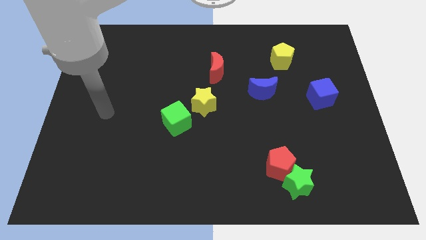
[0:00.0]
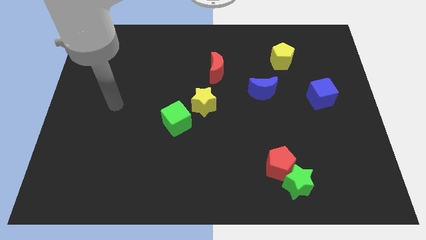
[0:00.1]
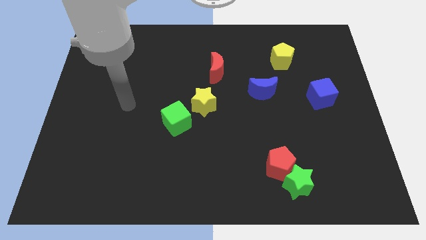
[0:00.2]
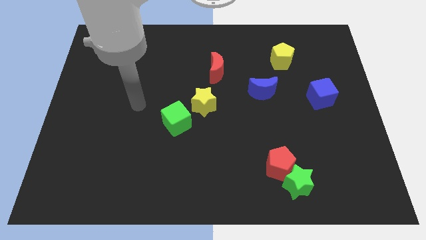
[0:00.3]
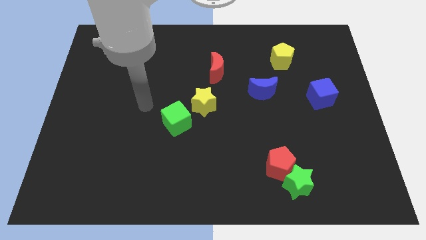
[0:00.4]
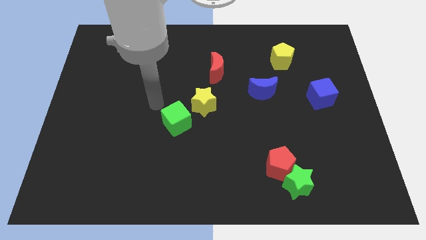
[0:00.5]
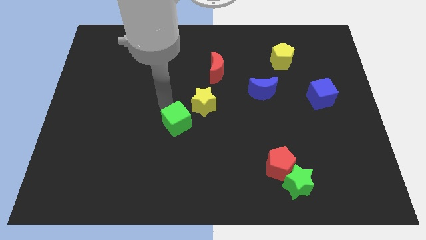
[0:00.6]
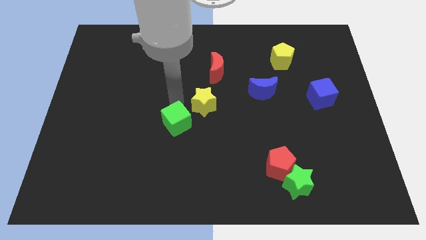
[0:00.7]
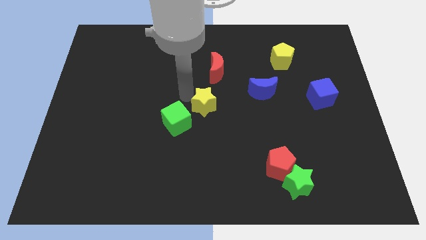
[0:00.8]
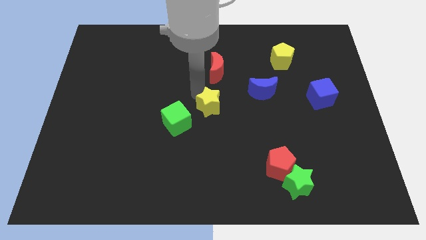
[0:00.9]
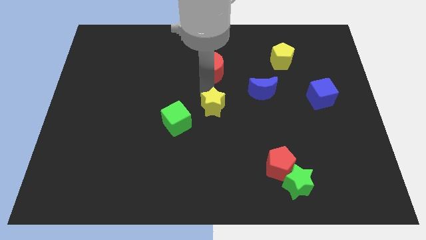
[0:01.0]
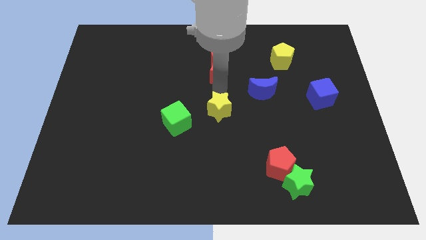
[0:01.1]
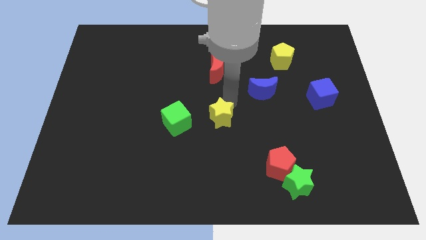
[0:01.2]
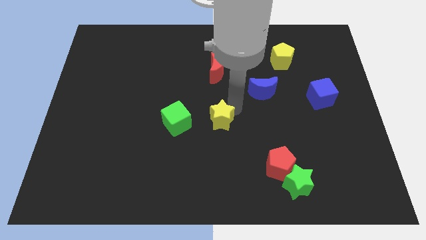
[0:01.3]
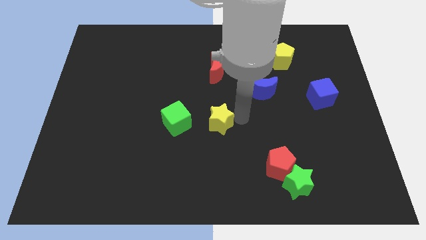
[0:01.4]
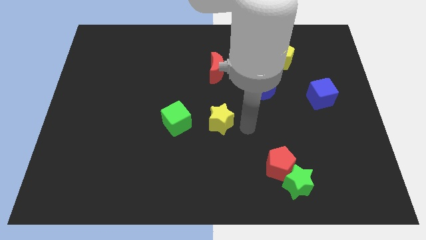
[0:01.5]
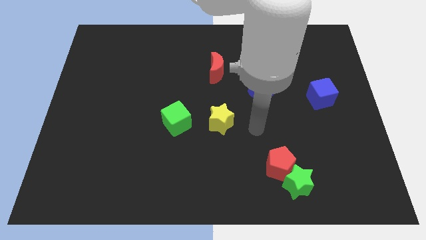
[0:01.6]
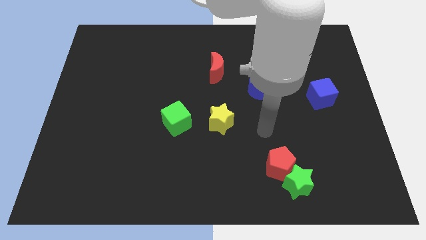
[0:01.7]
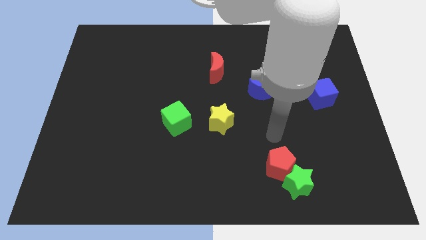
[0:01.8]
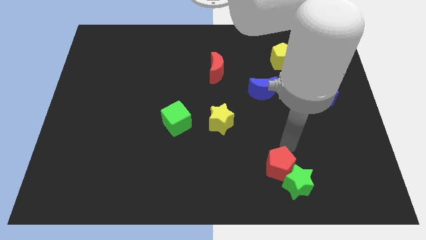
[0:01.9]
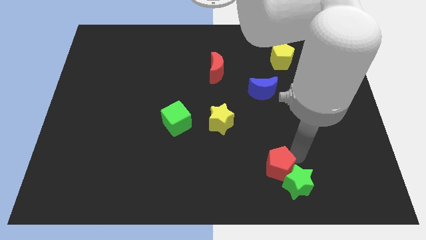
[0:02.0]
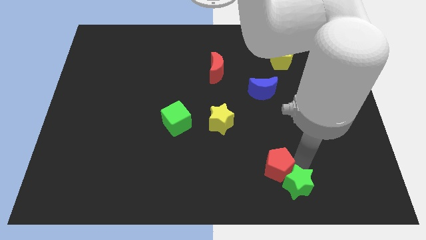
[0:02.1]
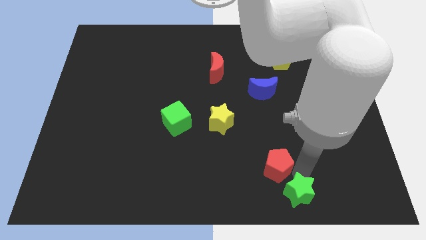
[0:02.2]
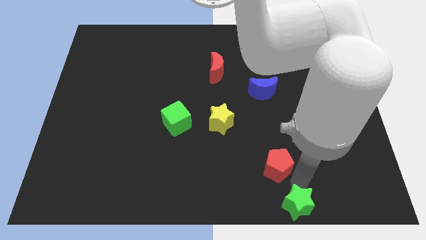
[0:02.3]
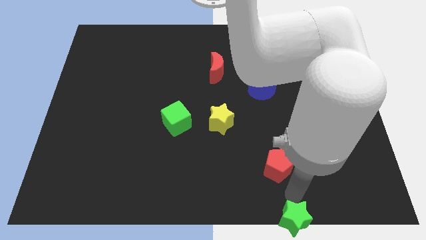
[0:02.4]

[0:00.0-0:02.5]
pull the red pentagon apart from the green star

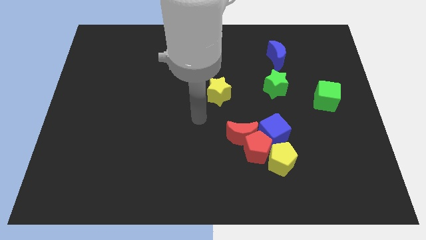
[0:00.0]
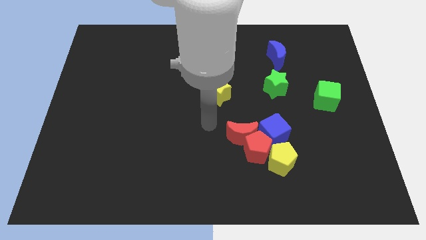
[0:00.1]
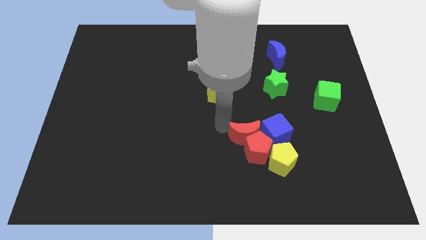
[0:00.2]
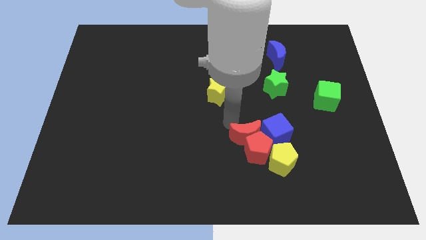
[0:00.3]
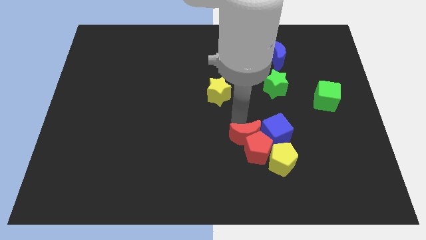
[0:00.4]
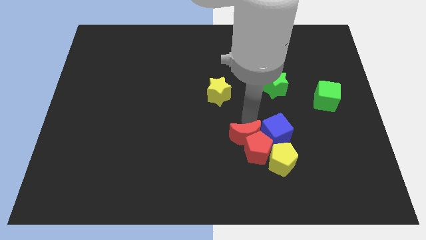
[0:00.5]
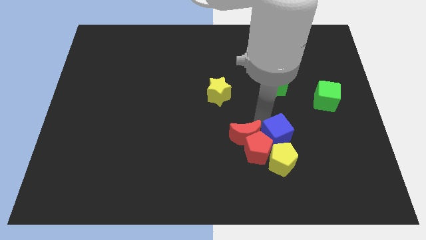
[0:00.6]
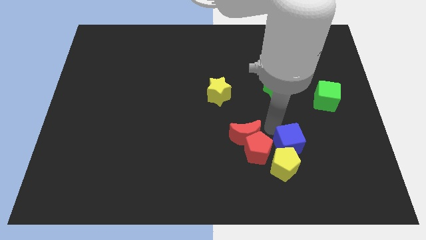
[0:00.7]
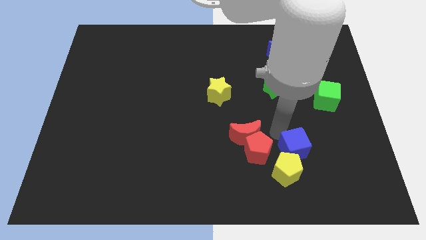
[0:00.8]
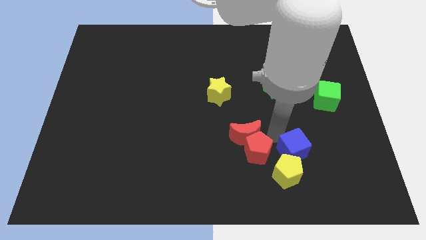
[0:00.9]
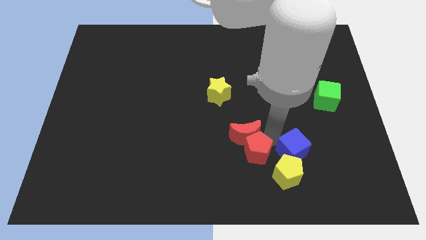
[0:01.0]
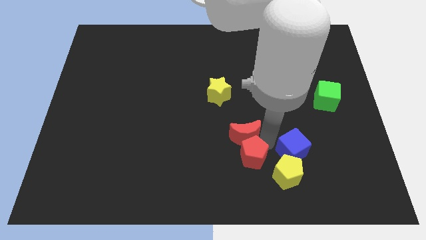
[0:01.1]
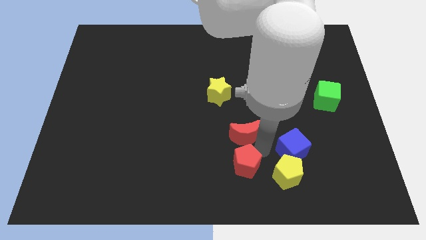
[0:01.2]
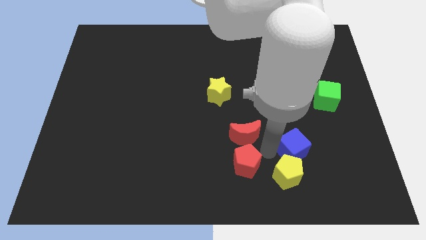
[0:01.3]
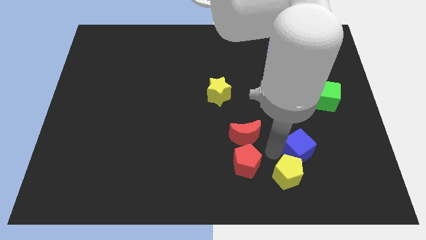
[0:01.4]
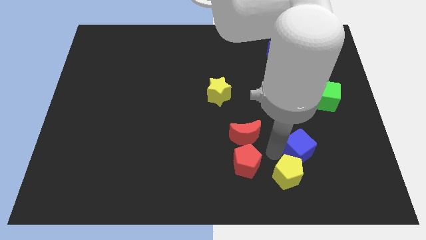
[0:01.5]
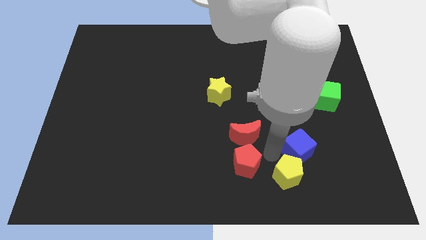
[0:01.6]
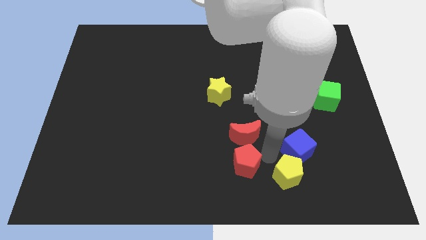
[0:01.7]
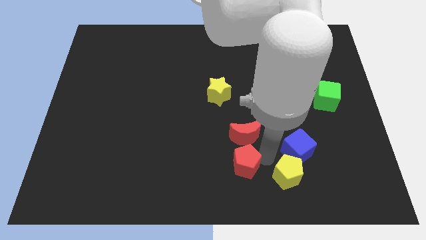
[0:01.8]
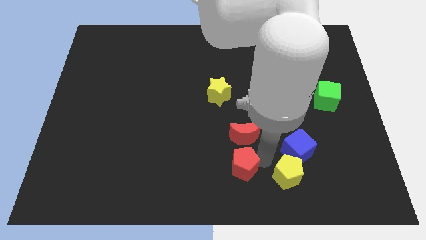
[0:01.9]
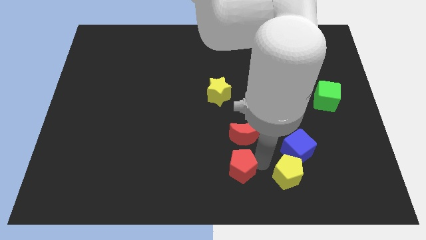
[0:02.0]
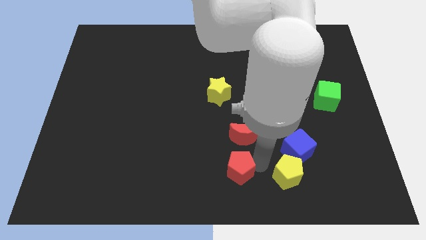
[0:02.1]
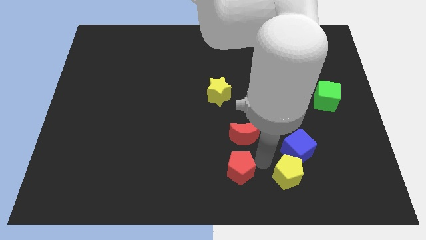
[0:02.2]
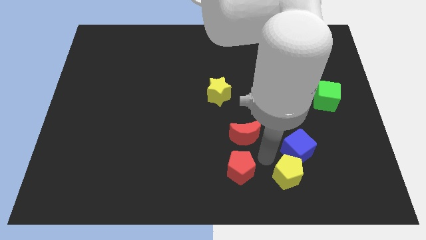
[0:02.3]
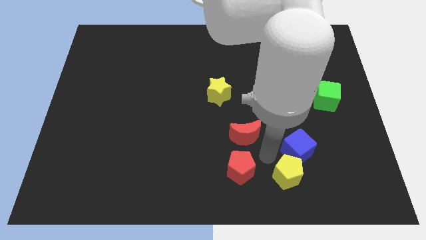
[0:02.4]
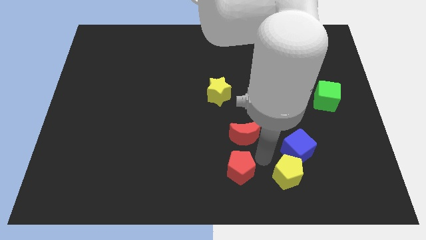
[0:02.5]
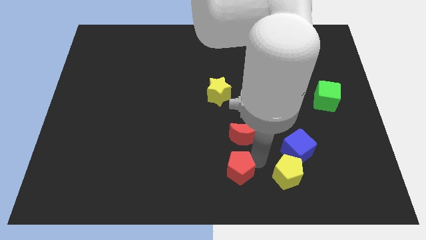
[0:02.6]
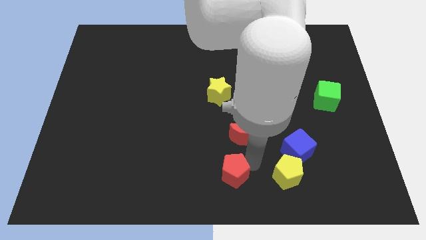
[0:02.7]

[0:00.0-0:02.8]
pull the red pentagon apart from the clump

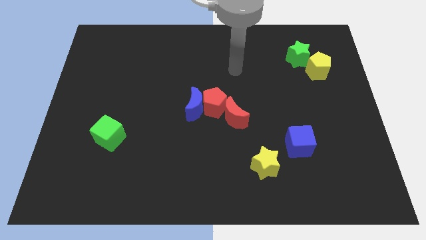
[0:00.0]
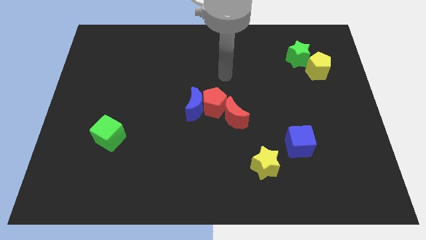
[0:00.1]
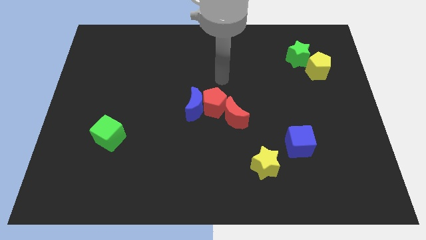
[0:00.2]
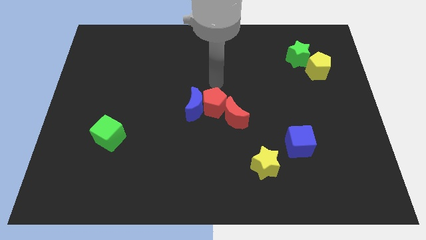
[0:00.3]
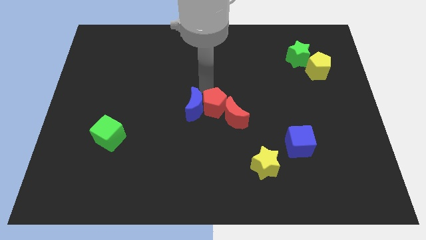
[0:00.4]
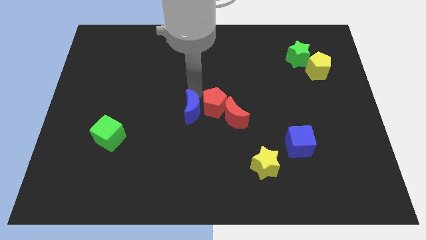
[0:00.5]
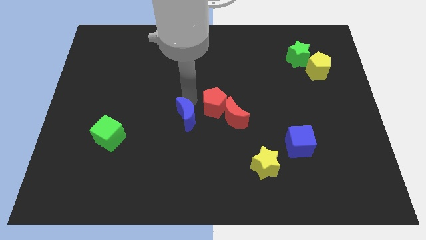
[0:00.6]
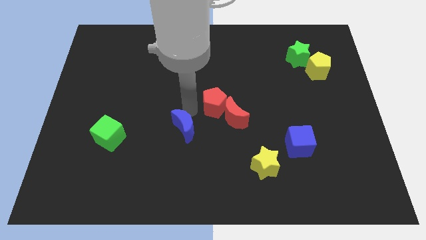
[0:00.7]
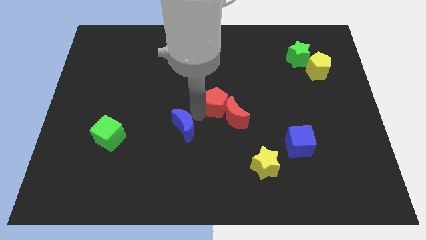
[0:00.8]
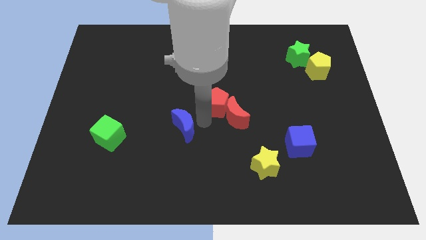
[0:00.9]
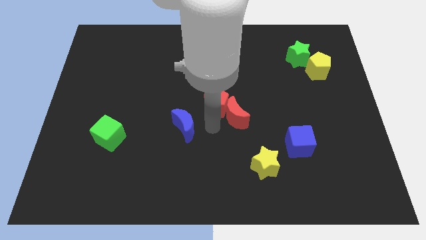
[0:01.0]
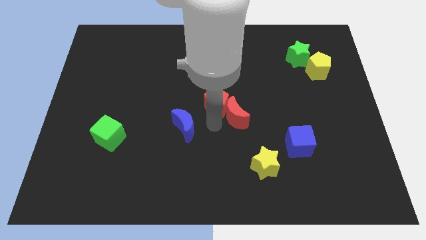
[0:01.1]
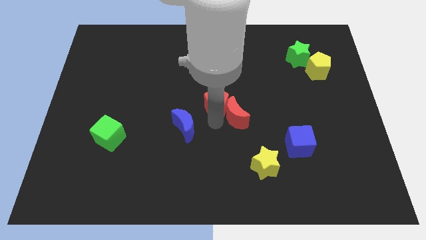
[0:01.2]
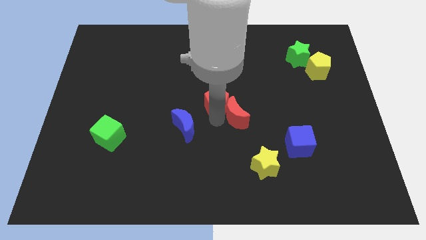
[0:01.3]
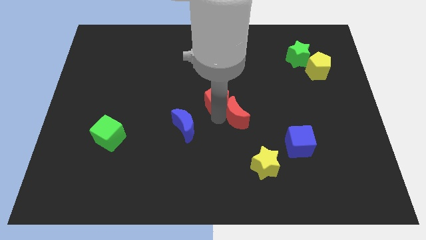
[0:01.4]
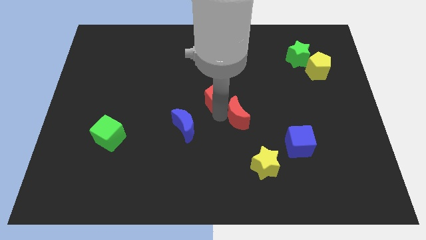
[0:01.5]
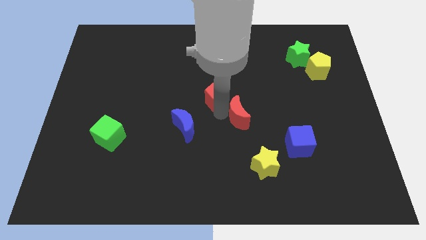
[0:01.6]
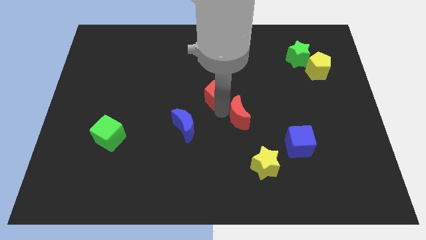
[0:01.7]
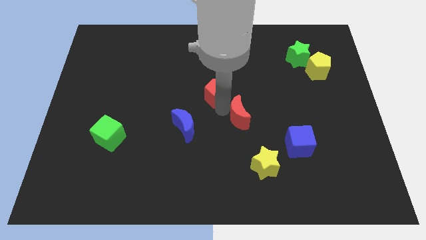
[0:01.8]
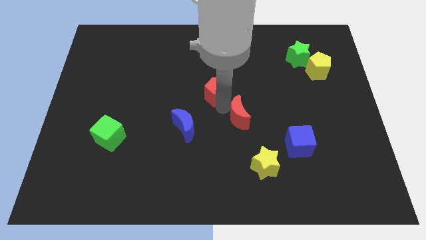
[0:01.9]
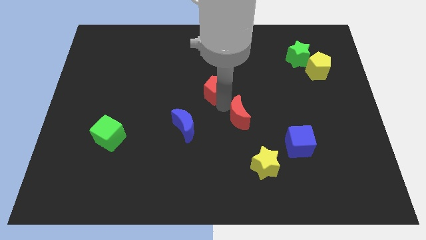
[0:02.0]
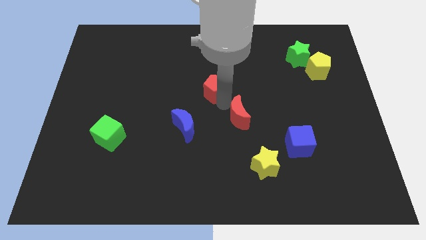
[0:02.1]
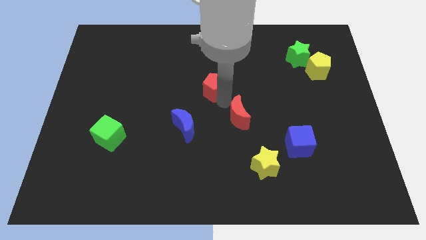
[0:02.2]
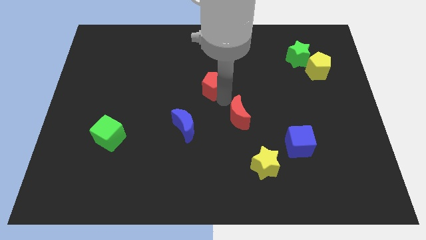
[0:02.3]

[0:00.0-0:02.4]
pull the red pentagon apart from the blue moon and red moon

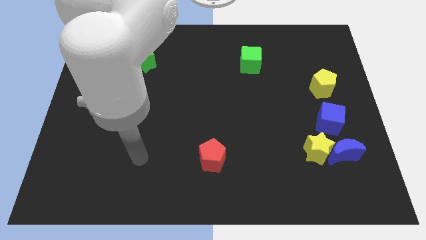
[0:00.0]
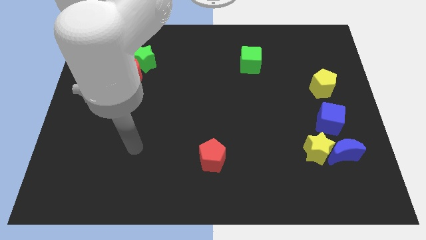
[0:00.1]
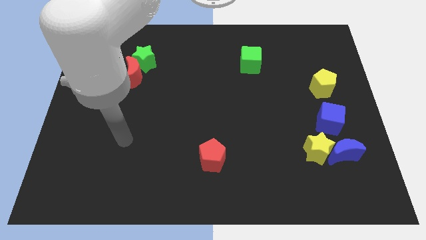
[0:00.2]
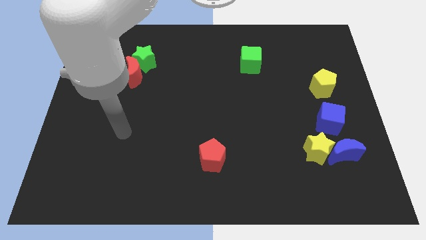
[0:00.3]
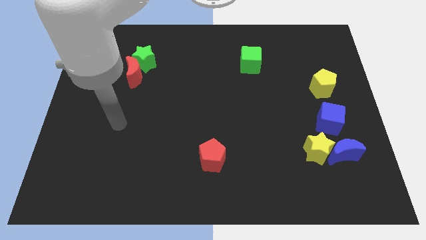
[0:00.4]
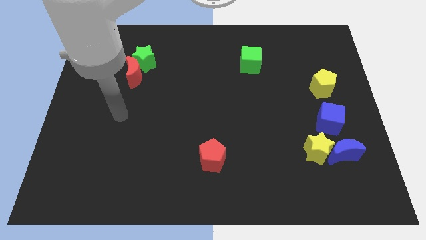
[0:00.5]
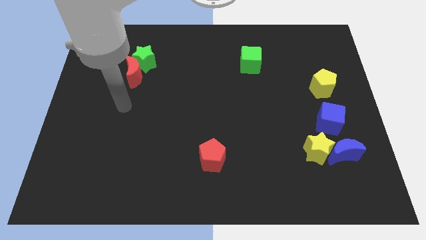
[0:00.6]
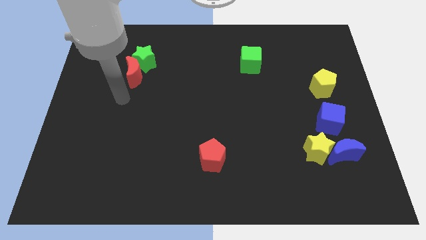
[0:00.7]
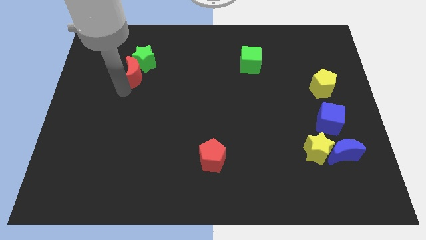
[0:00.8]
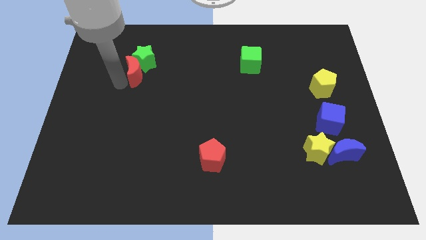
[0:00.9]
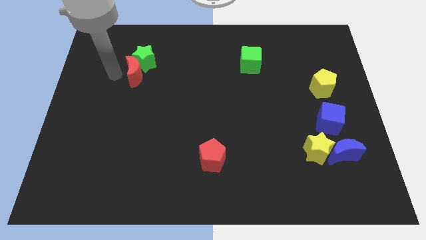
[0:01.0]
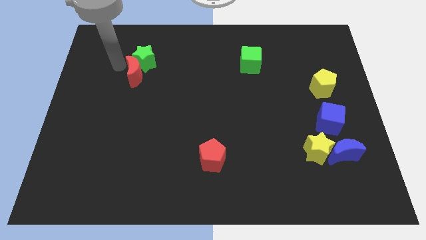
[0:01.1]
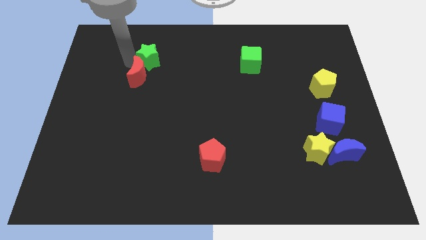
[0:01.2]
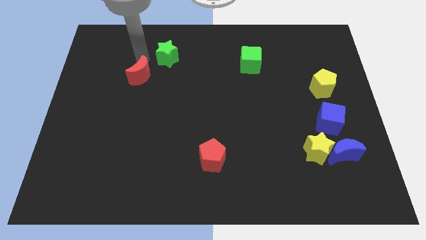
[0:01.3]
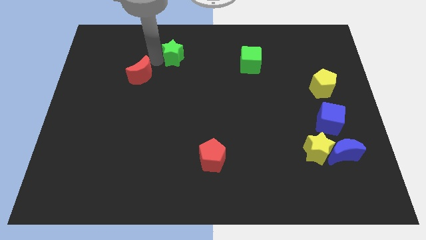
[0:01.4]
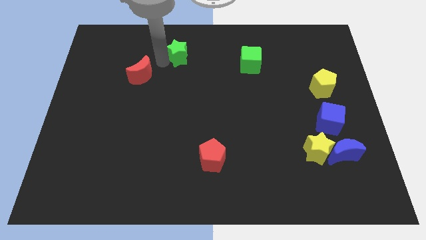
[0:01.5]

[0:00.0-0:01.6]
separate the red moon from the green star

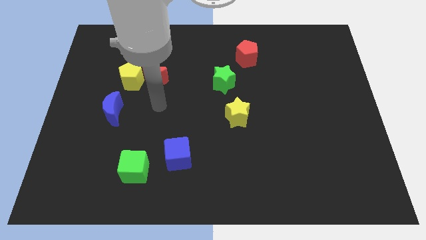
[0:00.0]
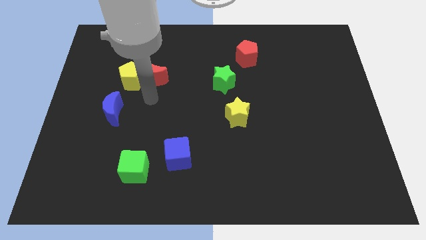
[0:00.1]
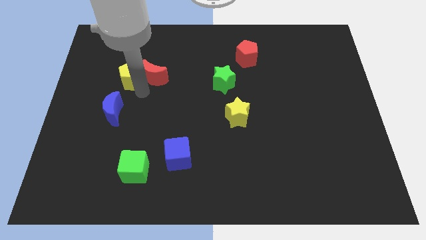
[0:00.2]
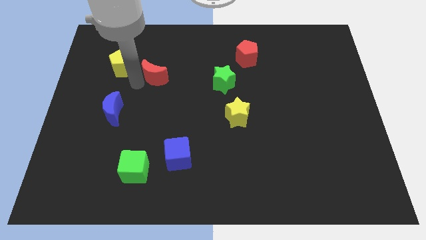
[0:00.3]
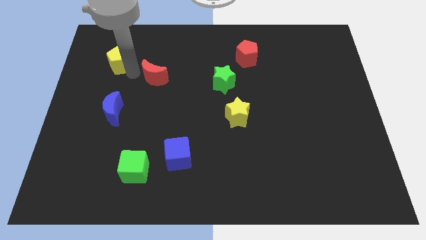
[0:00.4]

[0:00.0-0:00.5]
separate the red moon from the yellow pentagon
